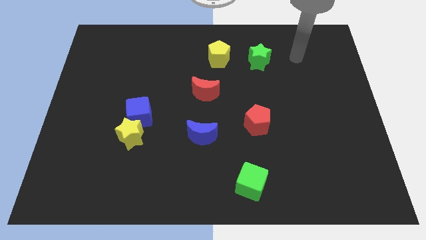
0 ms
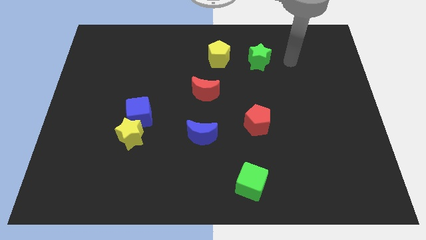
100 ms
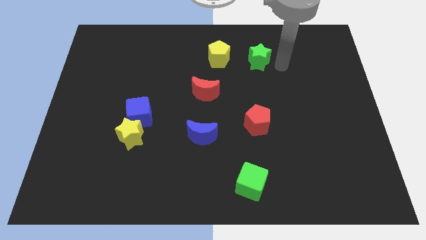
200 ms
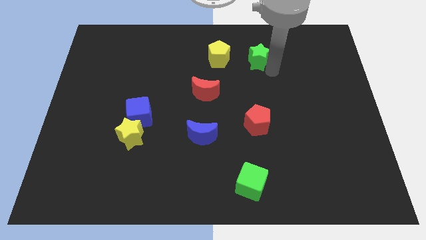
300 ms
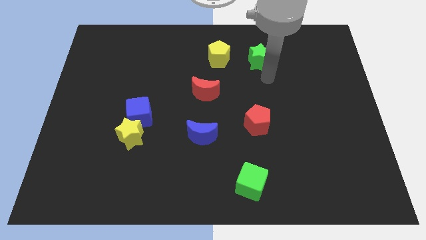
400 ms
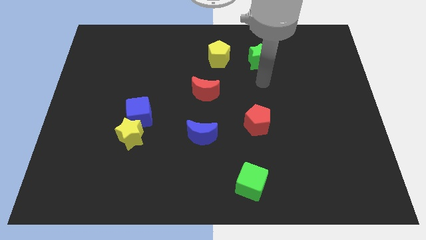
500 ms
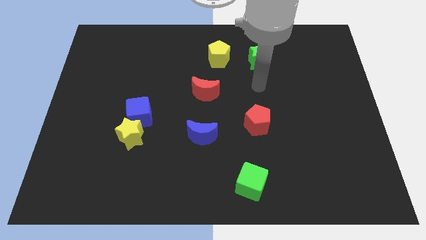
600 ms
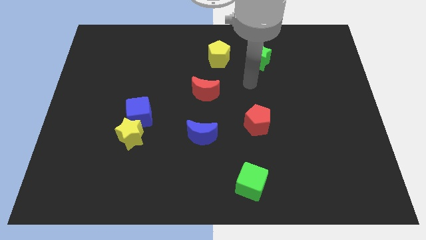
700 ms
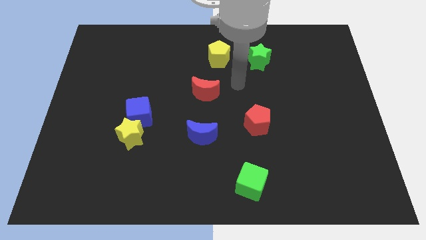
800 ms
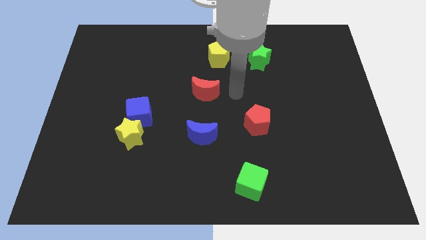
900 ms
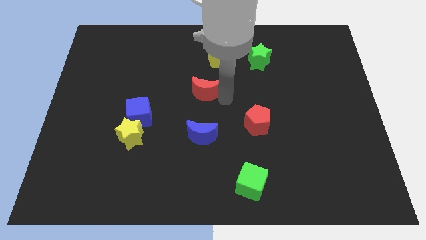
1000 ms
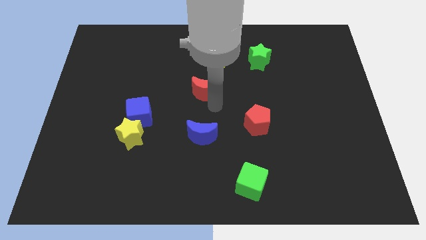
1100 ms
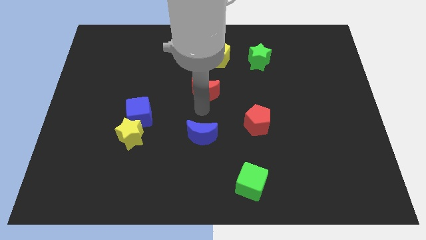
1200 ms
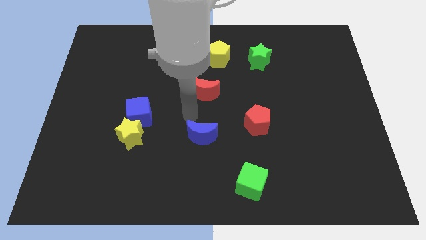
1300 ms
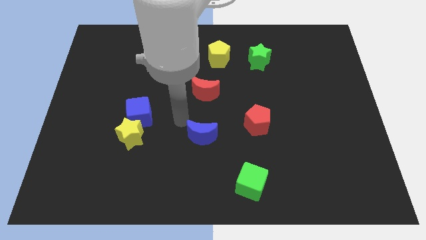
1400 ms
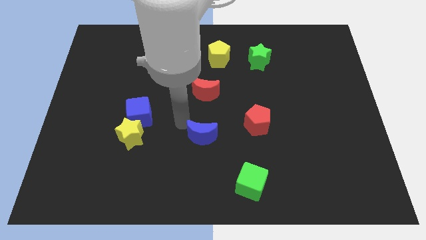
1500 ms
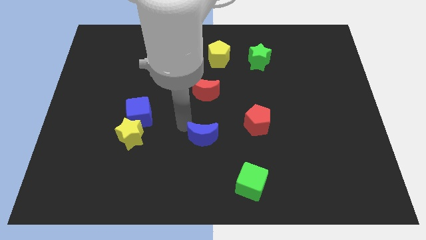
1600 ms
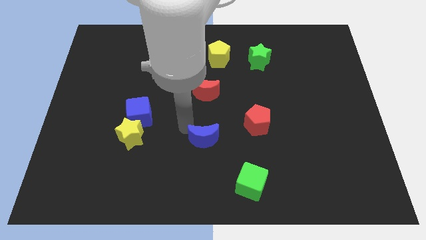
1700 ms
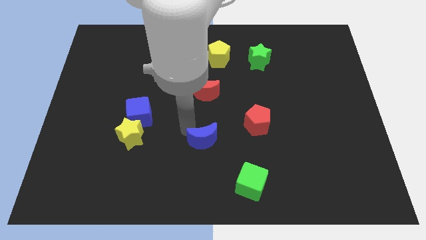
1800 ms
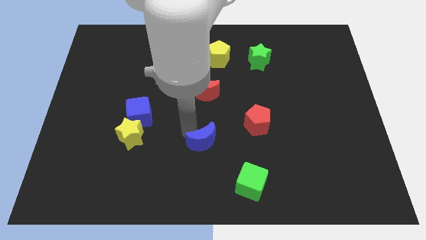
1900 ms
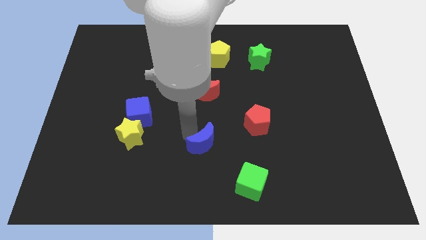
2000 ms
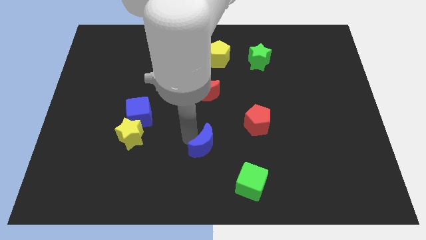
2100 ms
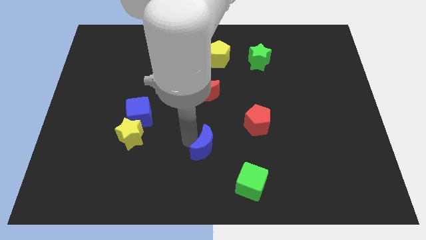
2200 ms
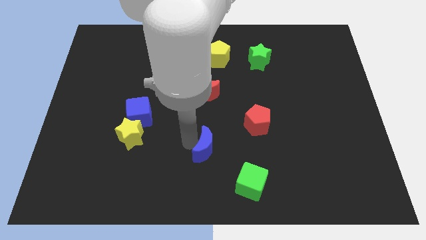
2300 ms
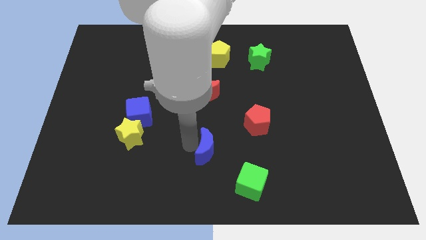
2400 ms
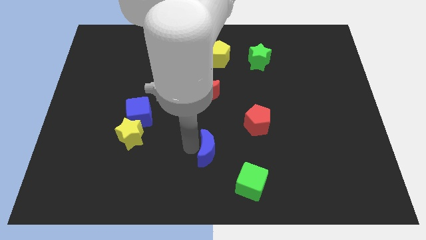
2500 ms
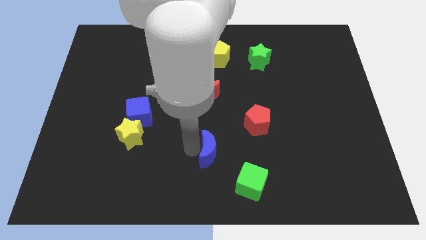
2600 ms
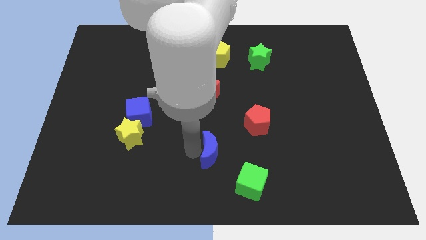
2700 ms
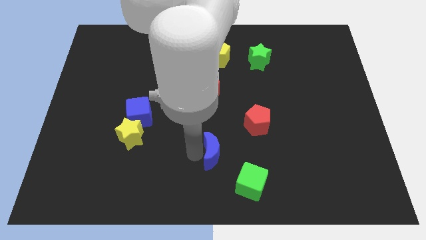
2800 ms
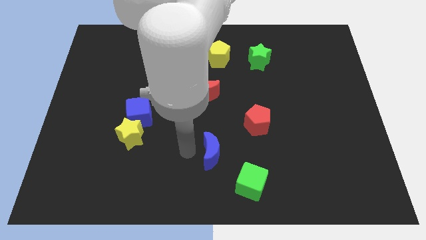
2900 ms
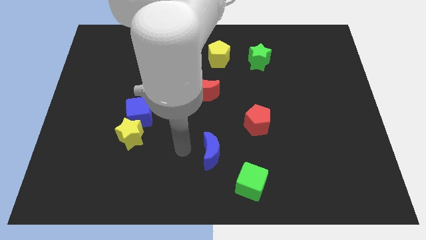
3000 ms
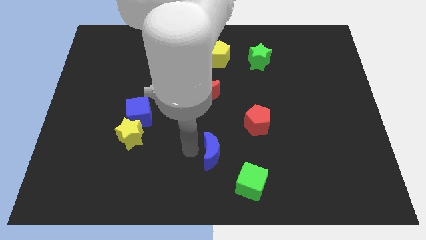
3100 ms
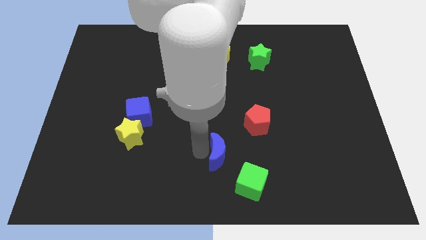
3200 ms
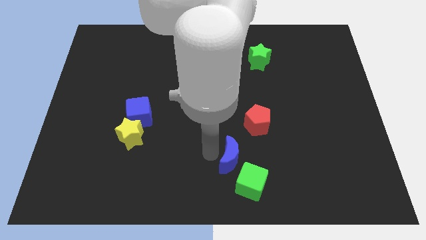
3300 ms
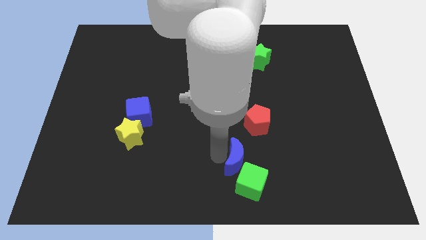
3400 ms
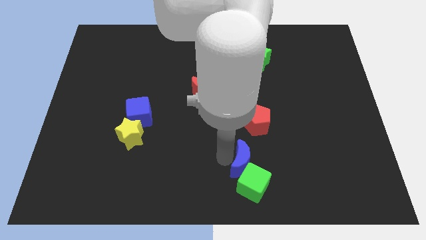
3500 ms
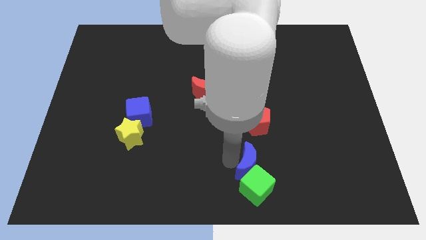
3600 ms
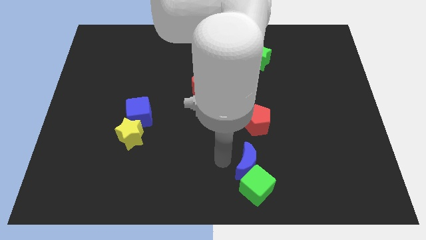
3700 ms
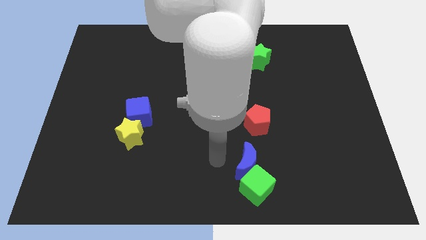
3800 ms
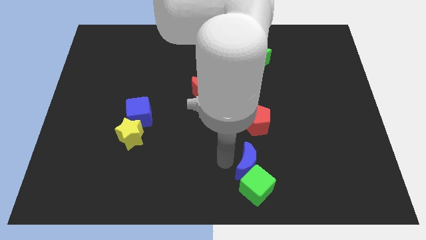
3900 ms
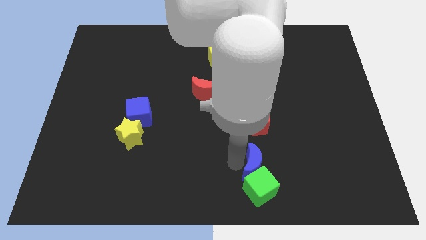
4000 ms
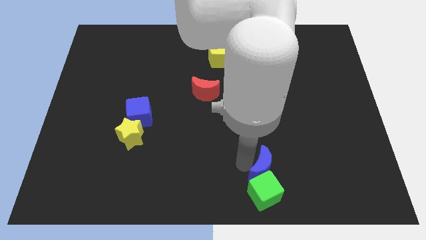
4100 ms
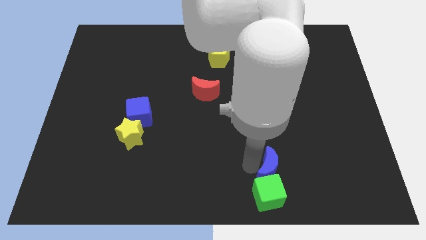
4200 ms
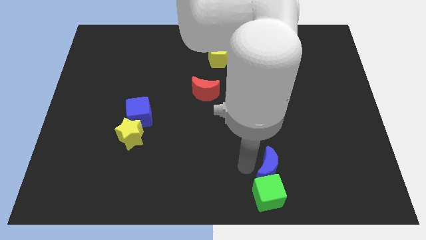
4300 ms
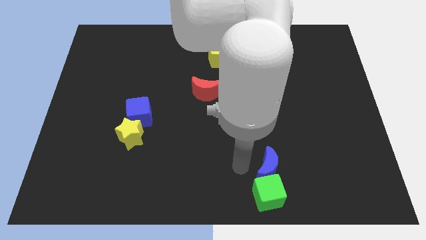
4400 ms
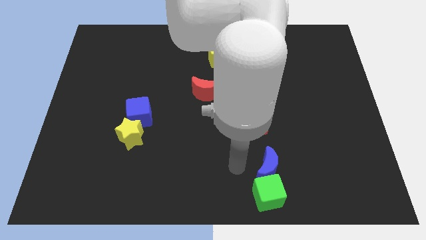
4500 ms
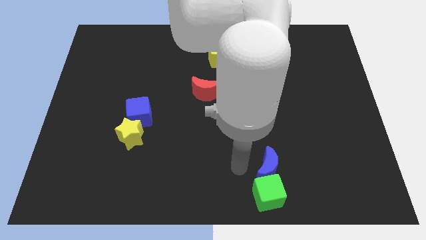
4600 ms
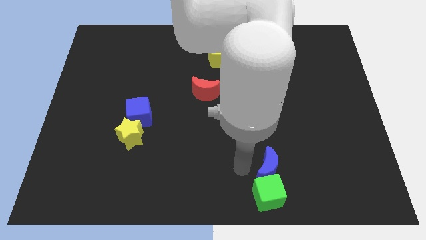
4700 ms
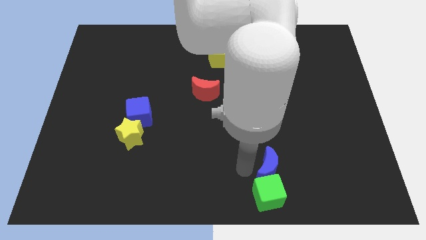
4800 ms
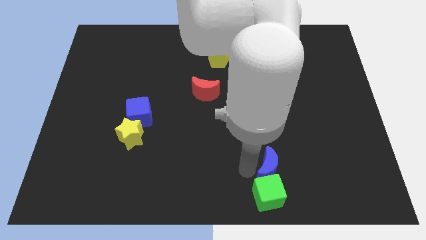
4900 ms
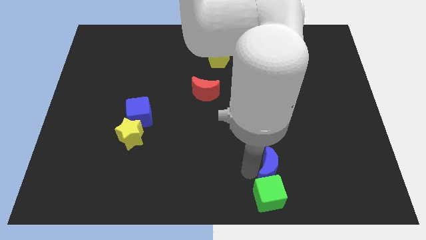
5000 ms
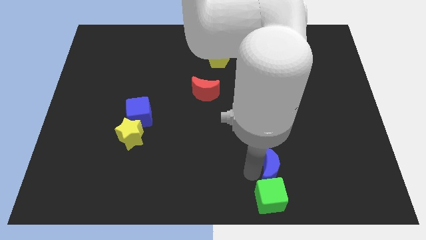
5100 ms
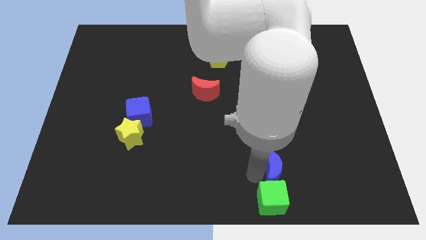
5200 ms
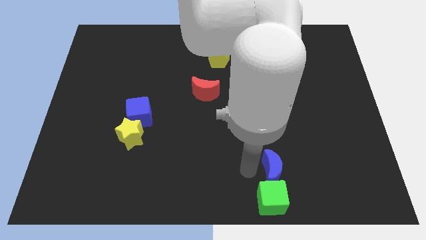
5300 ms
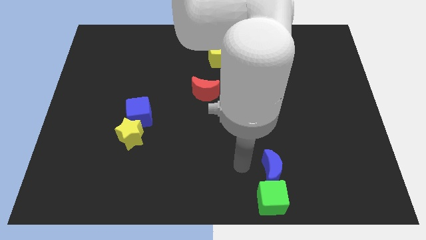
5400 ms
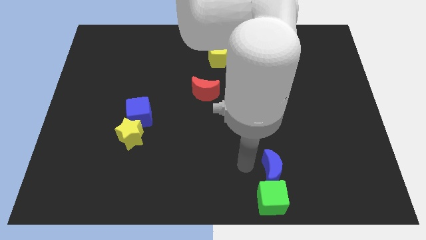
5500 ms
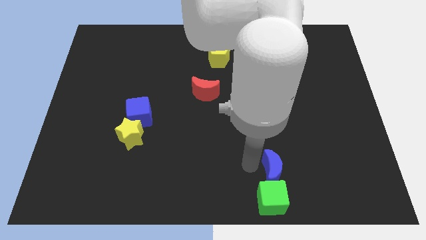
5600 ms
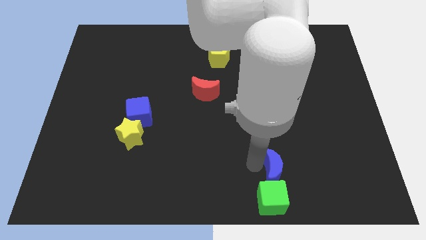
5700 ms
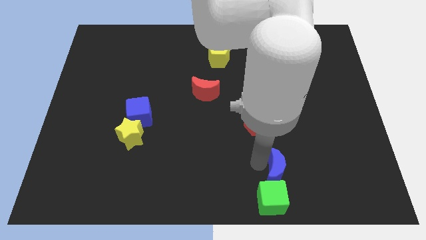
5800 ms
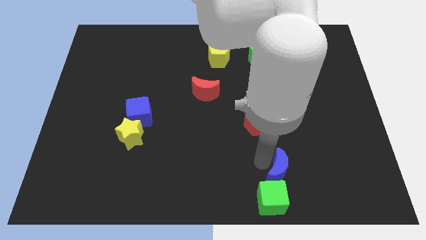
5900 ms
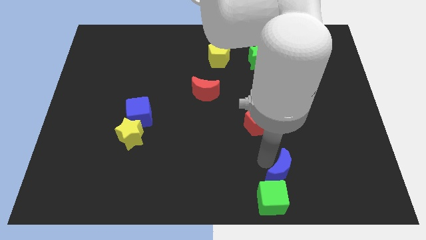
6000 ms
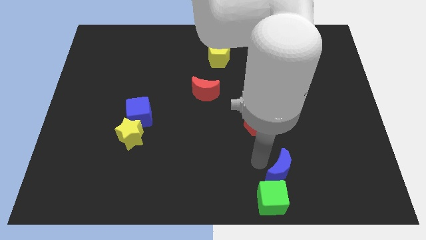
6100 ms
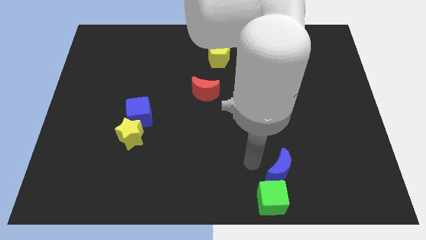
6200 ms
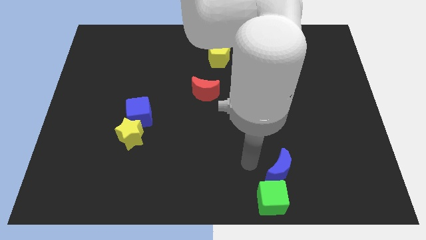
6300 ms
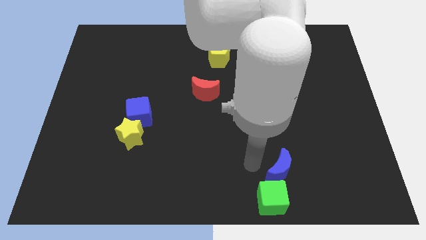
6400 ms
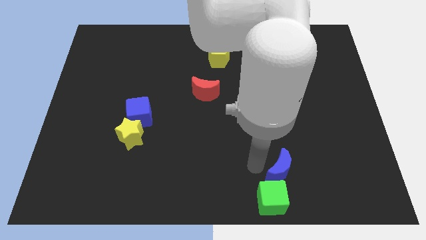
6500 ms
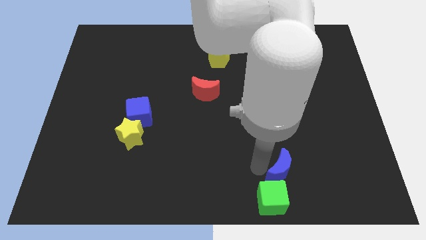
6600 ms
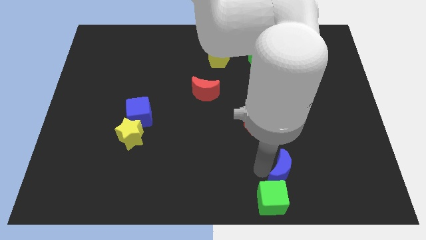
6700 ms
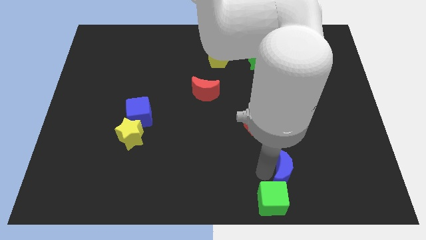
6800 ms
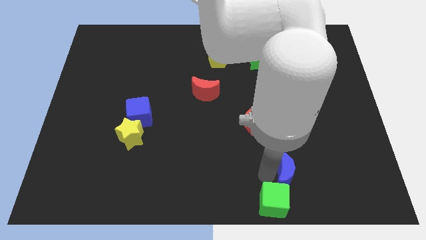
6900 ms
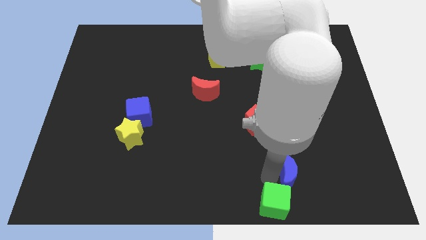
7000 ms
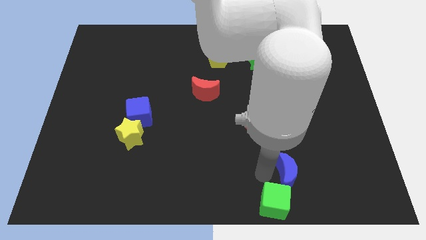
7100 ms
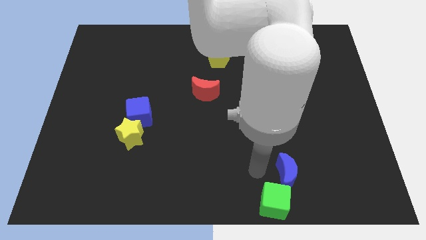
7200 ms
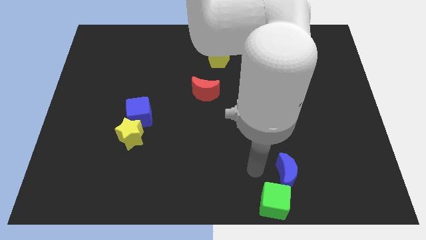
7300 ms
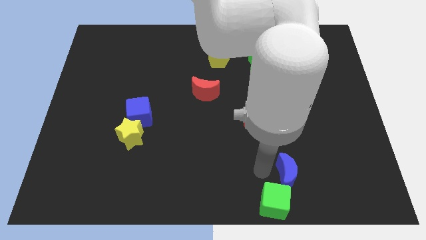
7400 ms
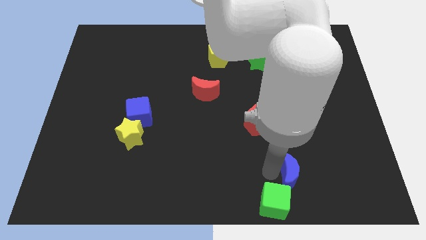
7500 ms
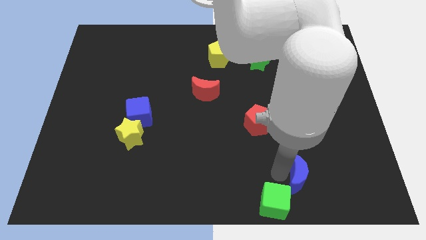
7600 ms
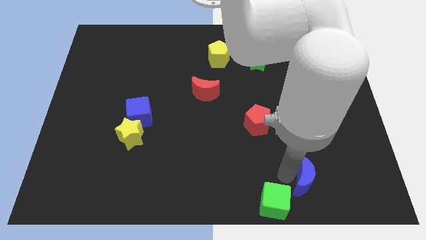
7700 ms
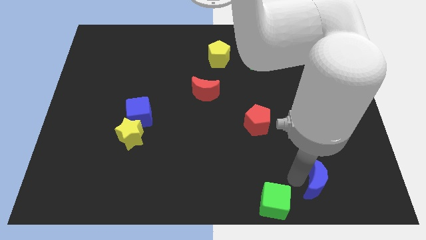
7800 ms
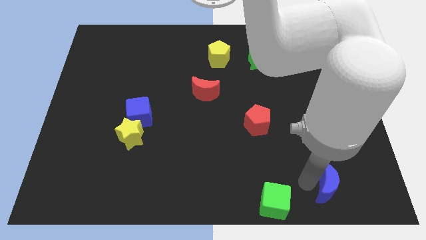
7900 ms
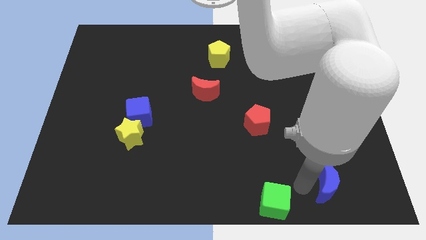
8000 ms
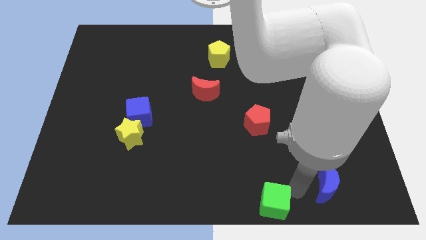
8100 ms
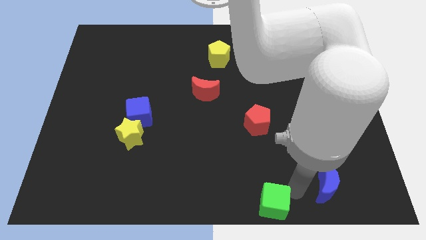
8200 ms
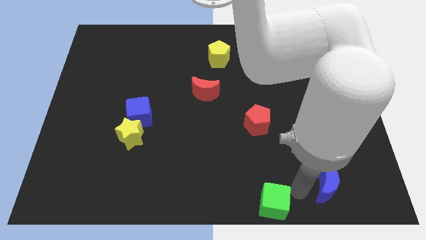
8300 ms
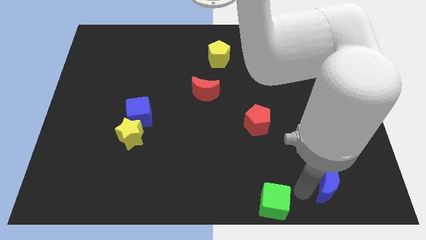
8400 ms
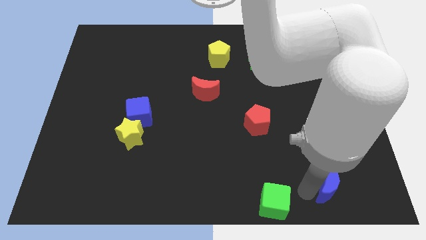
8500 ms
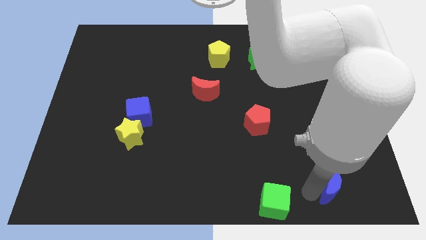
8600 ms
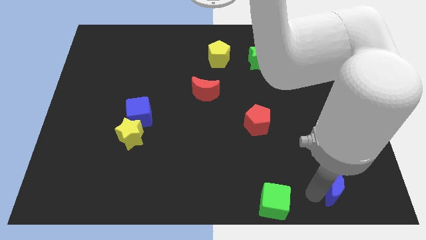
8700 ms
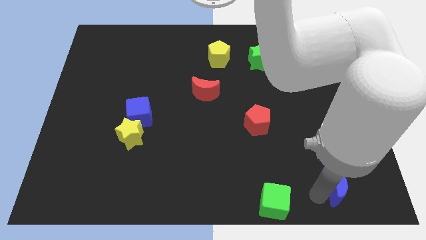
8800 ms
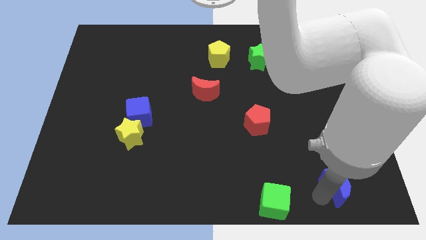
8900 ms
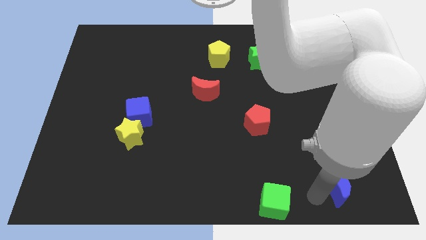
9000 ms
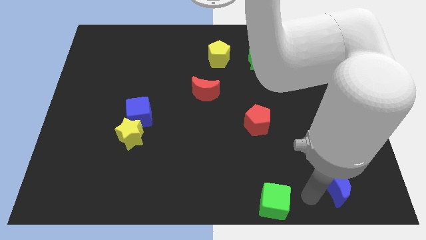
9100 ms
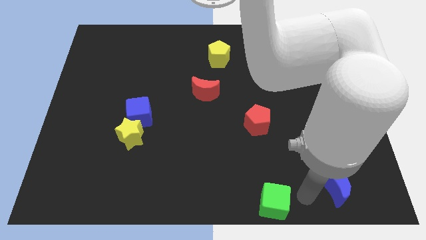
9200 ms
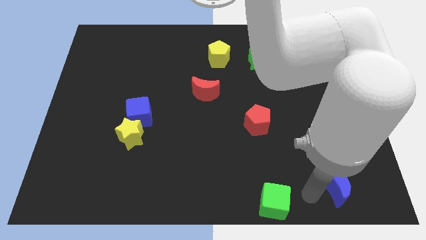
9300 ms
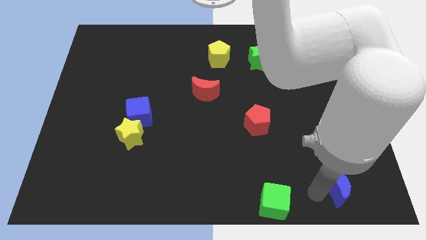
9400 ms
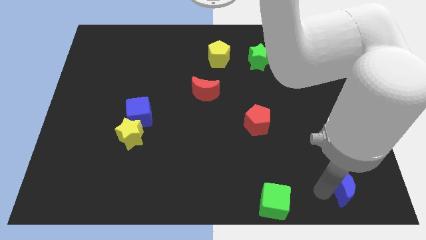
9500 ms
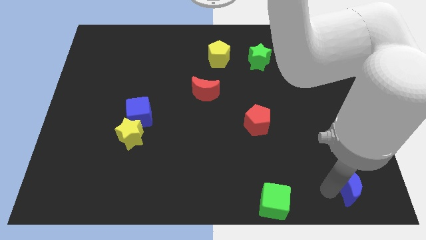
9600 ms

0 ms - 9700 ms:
push the blue moon to the bottom right of the board
